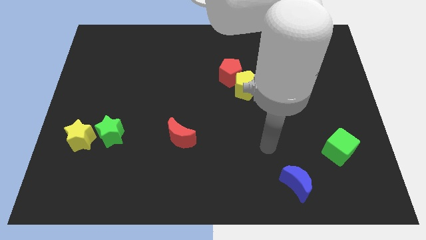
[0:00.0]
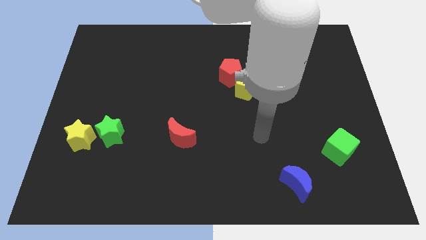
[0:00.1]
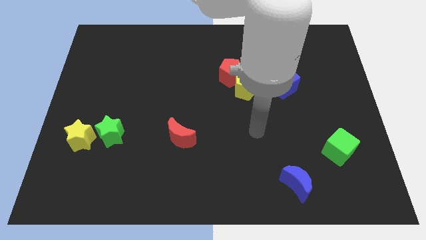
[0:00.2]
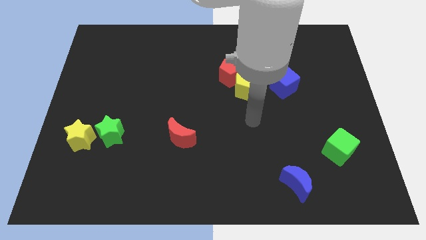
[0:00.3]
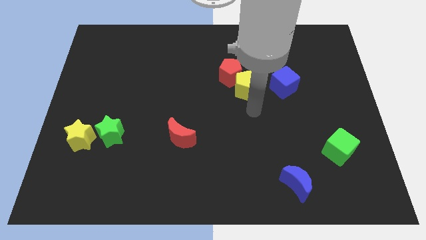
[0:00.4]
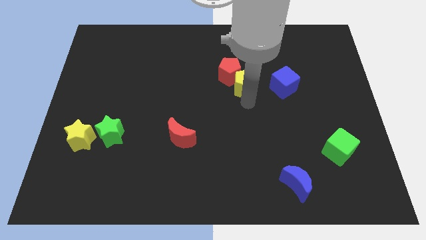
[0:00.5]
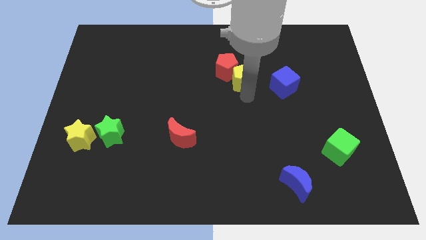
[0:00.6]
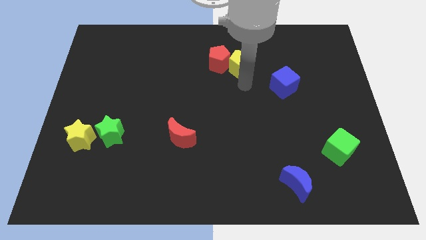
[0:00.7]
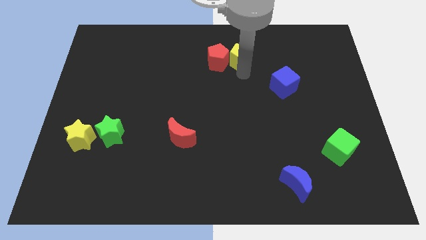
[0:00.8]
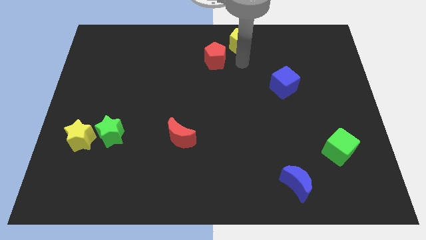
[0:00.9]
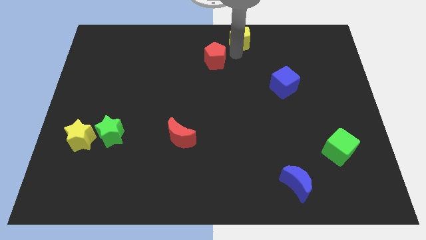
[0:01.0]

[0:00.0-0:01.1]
pull the red pentagon apart from the yellow pentagon

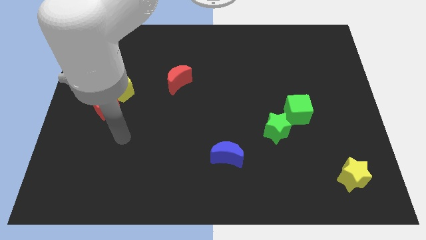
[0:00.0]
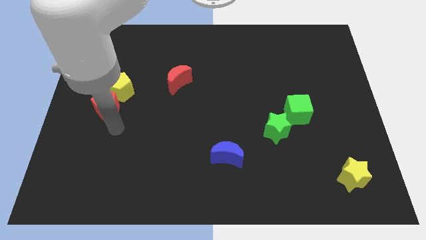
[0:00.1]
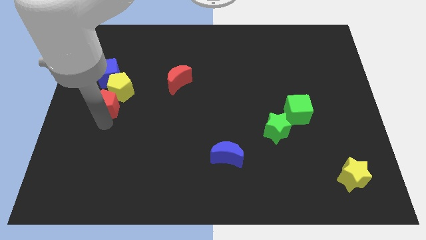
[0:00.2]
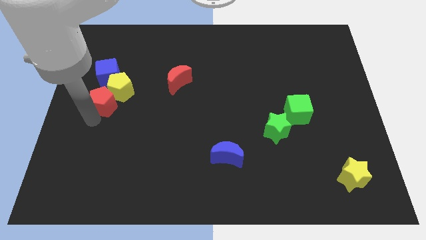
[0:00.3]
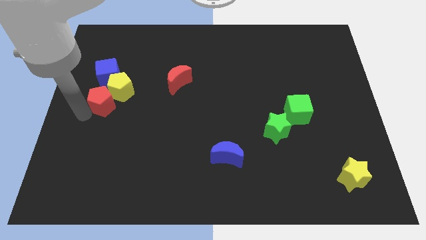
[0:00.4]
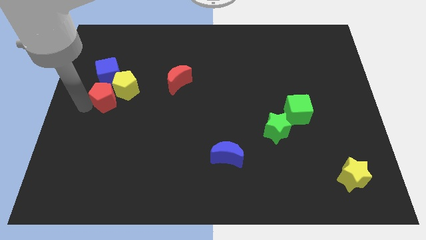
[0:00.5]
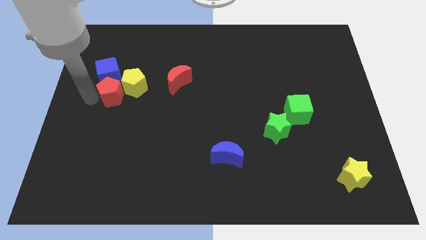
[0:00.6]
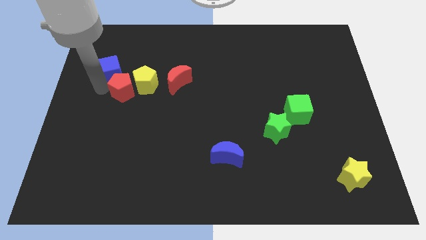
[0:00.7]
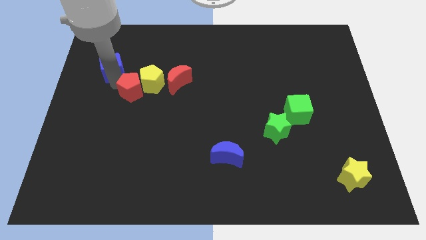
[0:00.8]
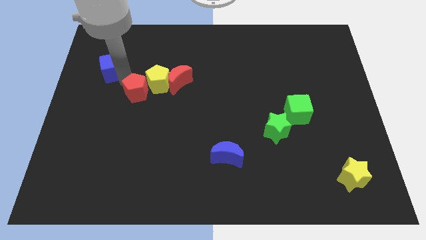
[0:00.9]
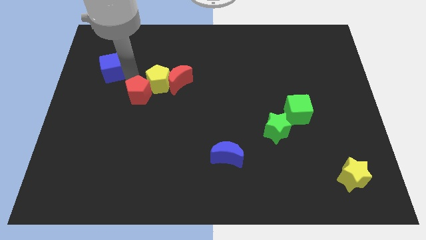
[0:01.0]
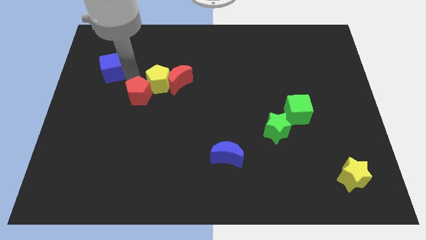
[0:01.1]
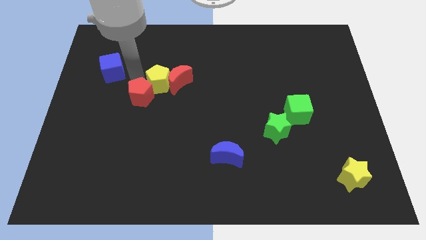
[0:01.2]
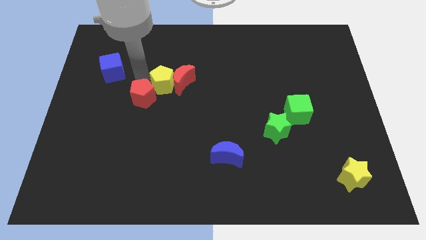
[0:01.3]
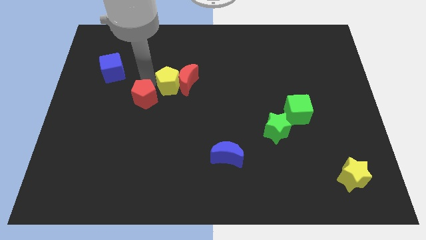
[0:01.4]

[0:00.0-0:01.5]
pull the yellow pentagon apart from the red pentagon and blue cube

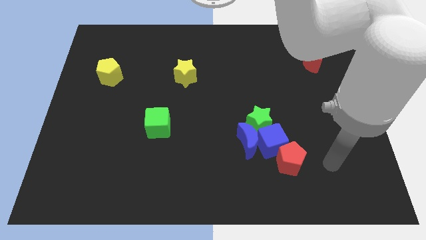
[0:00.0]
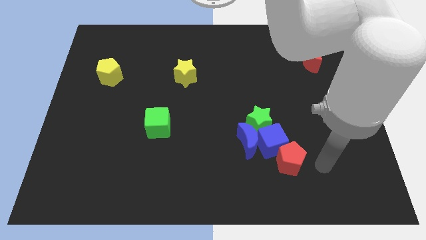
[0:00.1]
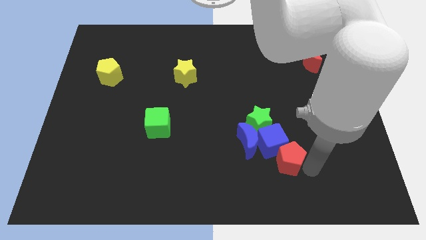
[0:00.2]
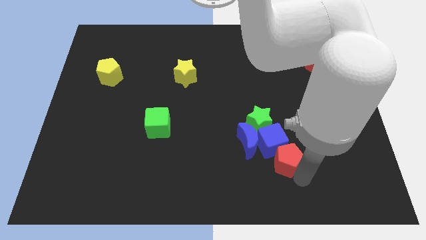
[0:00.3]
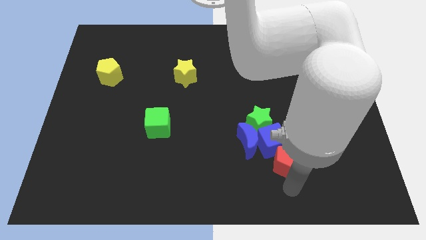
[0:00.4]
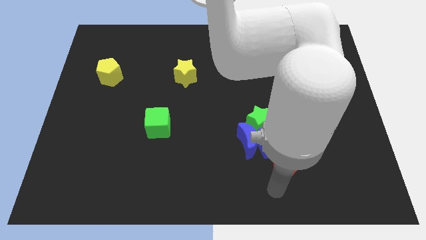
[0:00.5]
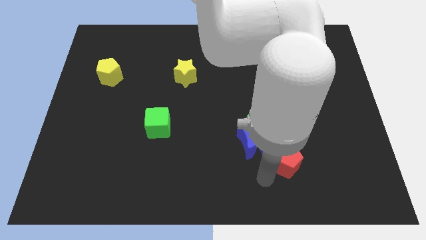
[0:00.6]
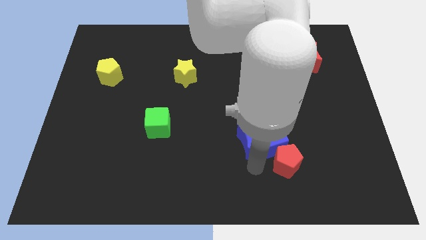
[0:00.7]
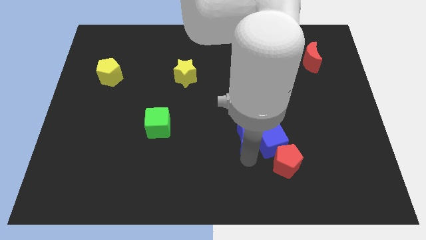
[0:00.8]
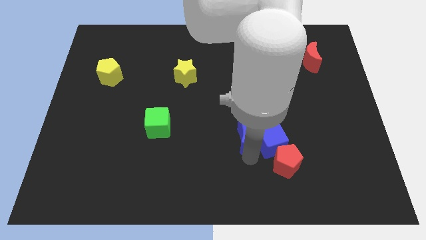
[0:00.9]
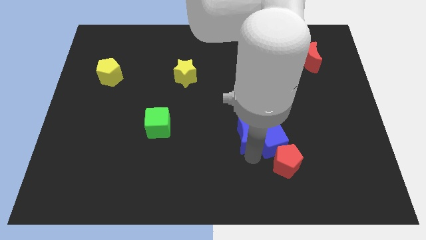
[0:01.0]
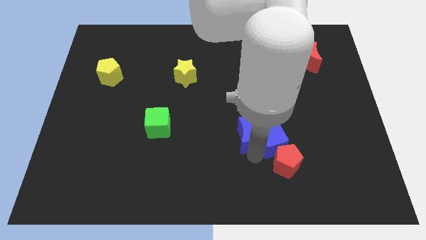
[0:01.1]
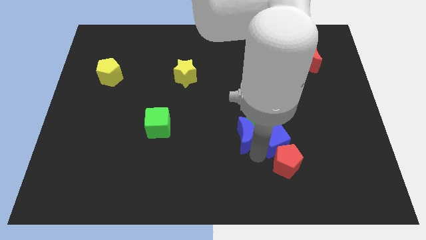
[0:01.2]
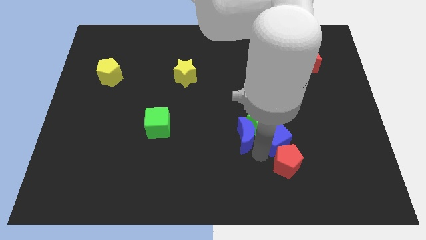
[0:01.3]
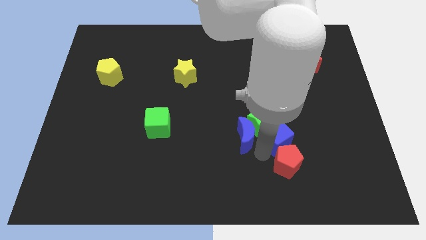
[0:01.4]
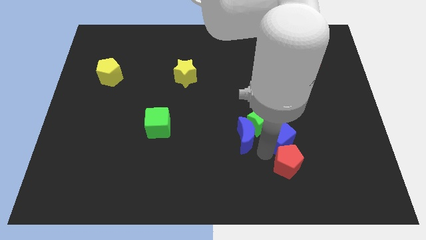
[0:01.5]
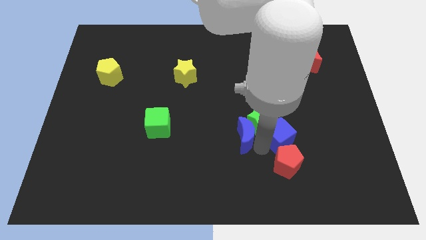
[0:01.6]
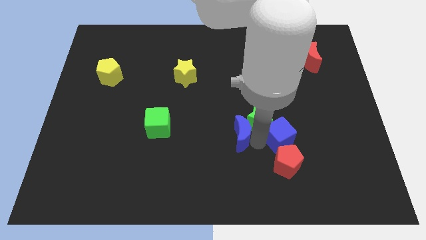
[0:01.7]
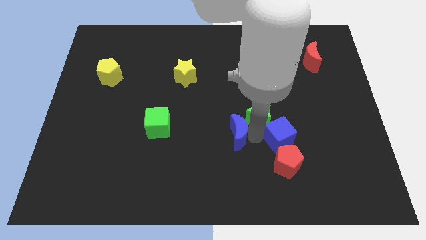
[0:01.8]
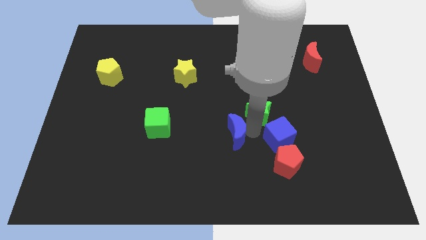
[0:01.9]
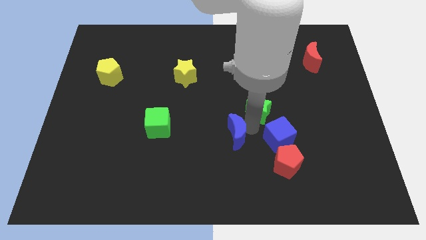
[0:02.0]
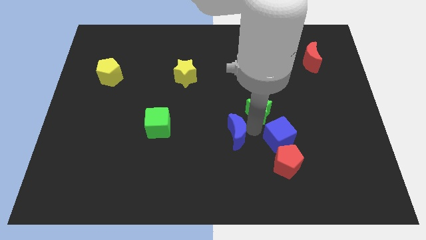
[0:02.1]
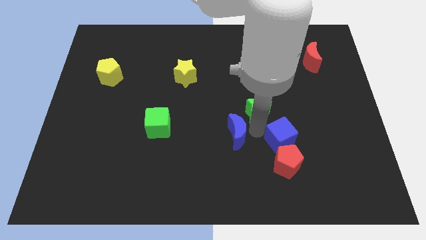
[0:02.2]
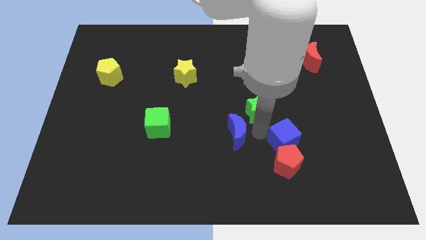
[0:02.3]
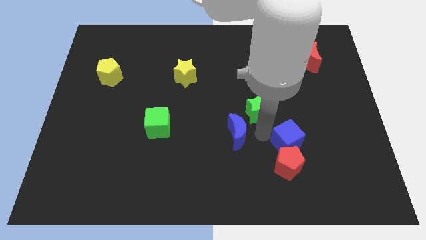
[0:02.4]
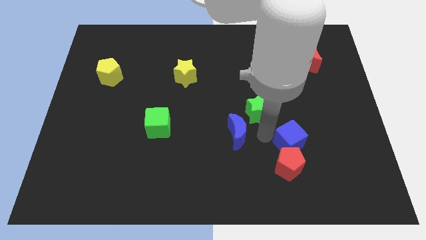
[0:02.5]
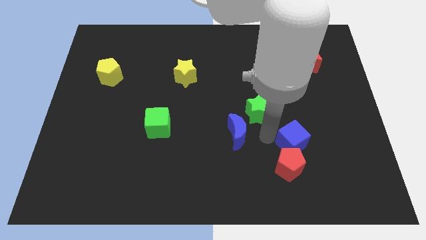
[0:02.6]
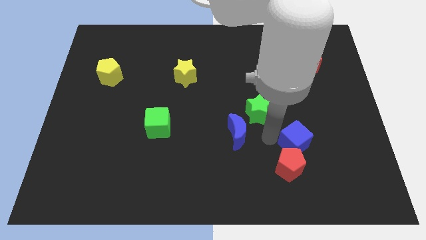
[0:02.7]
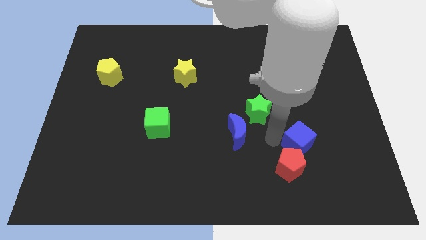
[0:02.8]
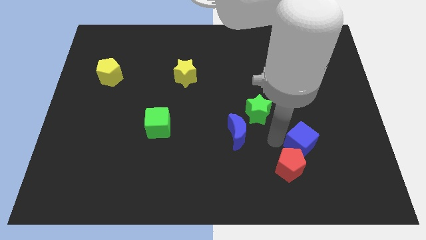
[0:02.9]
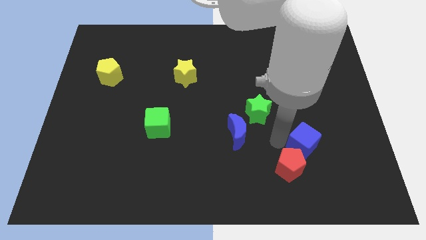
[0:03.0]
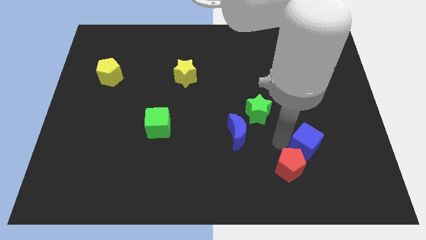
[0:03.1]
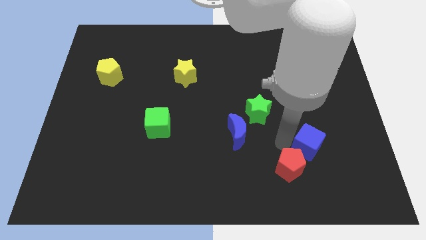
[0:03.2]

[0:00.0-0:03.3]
pull the blue cube apart from the blue moon, red pentagon, and green star

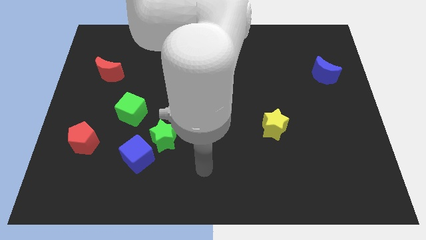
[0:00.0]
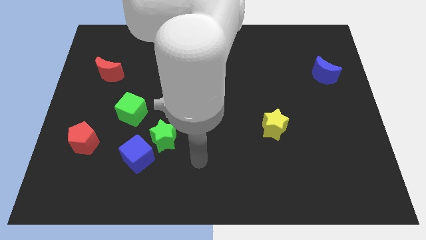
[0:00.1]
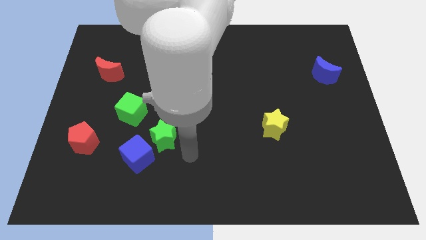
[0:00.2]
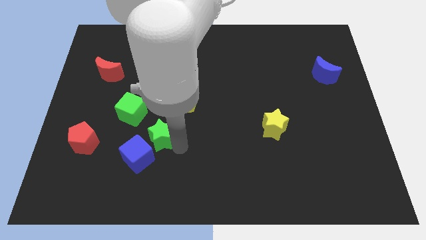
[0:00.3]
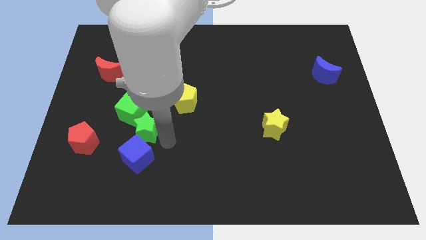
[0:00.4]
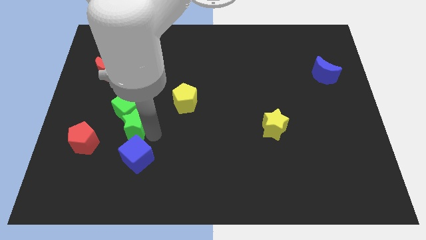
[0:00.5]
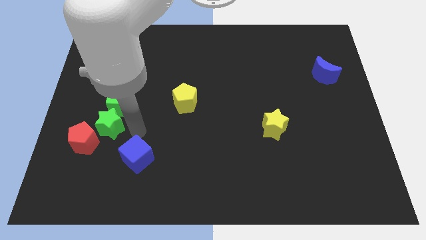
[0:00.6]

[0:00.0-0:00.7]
move the blue cube away from the green star

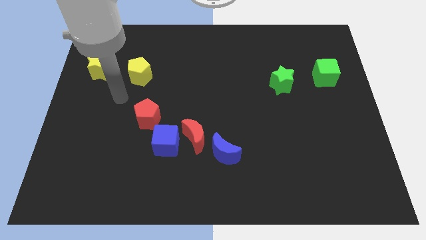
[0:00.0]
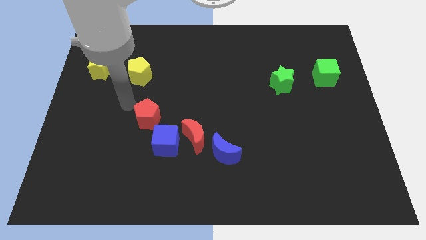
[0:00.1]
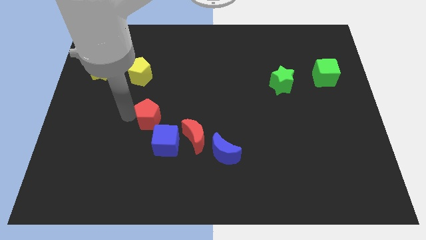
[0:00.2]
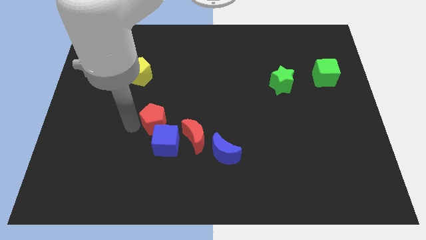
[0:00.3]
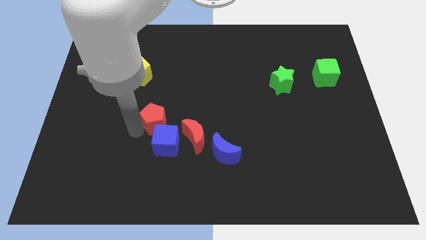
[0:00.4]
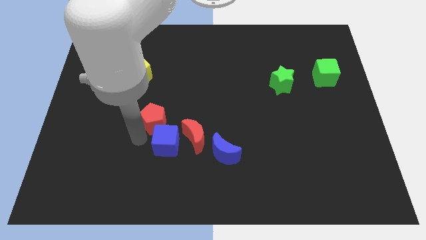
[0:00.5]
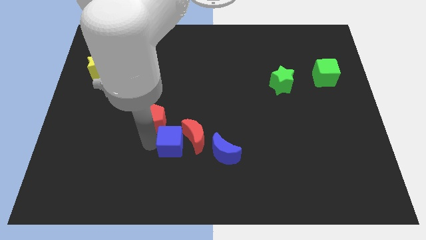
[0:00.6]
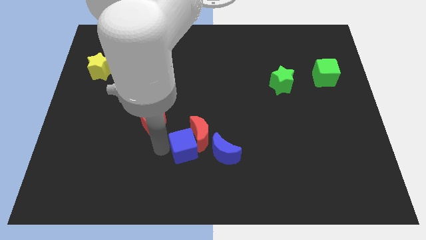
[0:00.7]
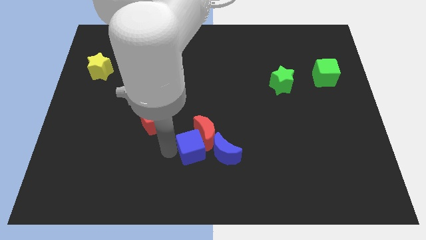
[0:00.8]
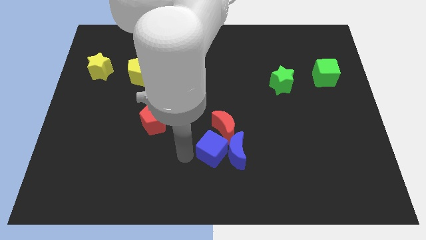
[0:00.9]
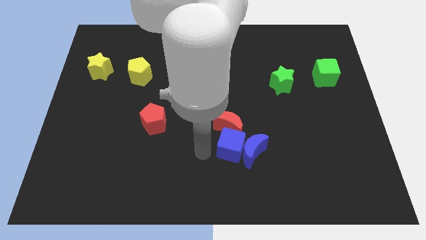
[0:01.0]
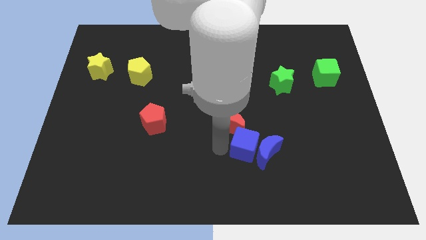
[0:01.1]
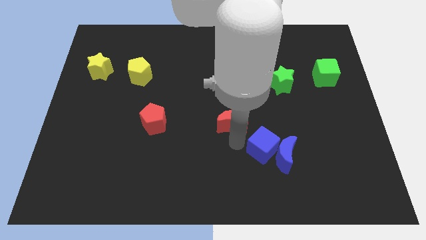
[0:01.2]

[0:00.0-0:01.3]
separate the red moon from the blue cube and blue moon

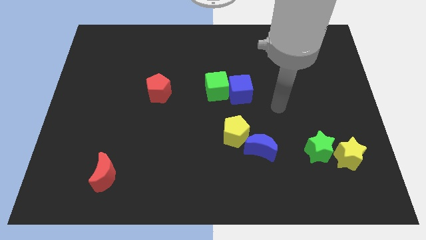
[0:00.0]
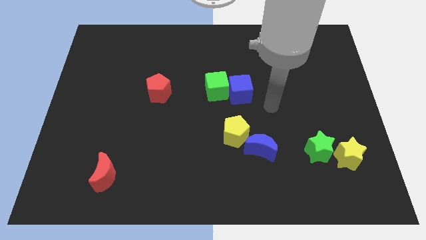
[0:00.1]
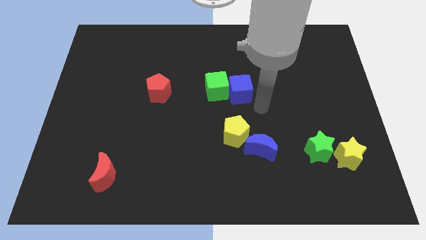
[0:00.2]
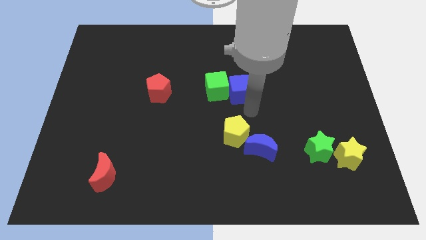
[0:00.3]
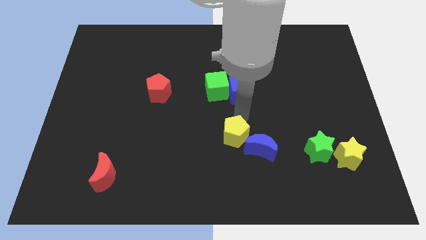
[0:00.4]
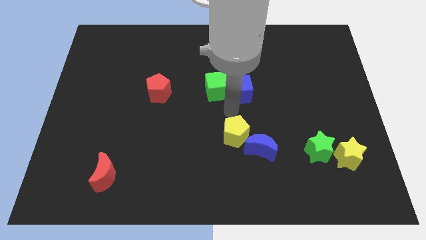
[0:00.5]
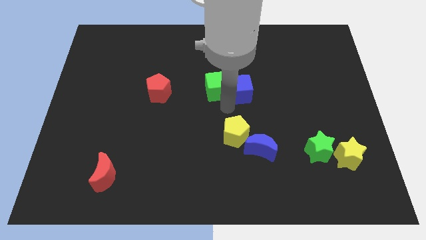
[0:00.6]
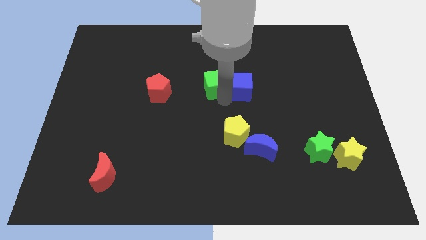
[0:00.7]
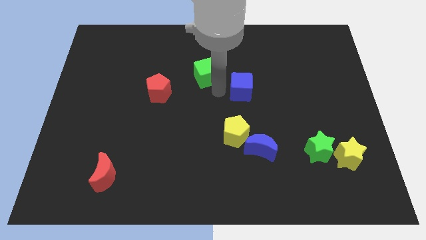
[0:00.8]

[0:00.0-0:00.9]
separate the blue cube from the green cube

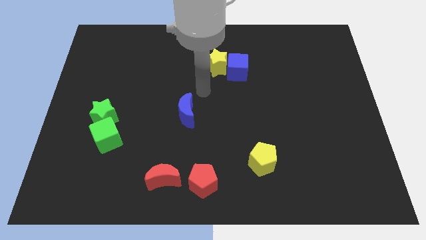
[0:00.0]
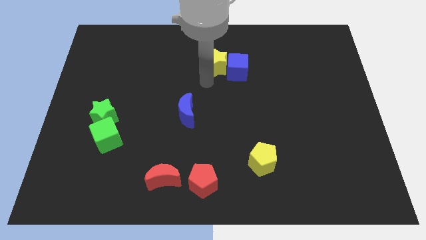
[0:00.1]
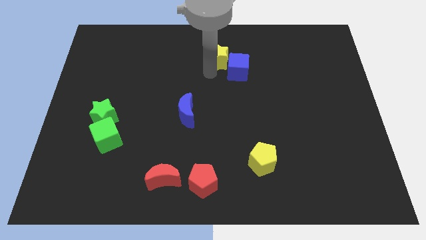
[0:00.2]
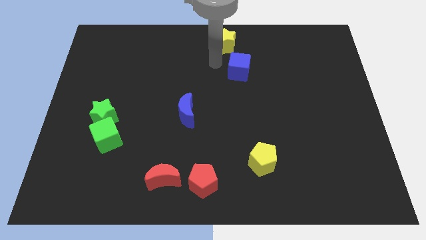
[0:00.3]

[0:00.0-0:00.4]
separate the blue cube from the yellow star

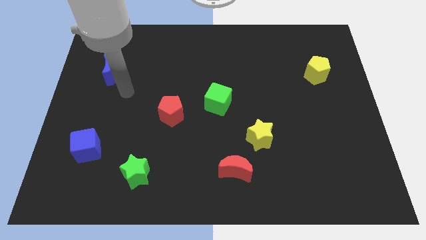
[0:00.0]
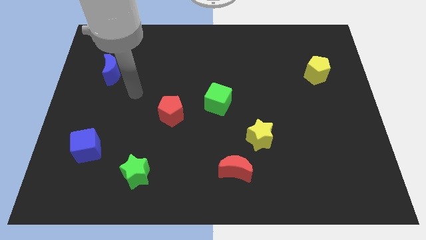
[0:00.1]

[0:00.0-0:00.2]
move the red moon away from the yellow star
